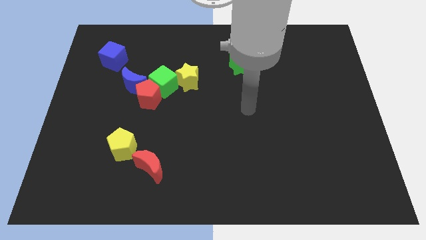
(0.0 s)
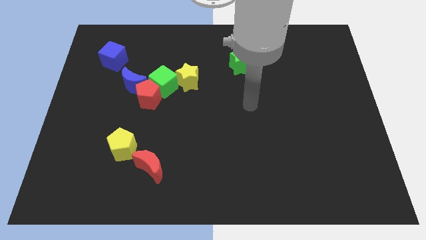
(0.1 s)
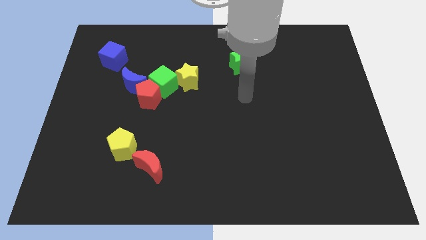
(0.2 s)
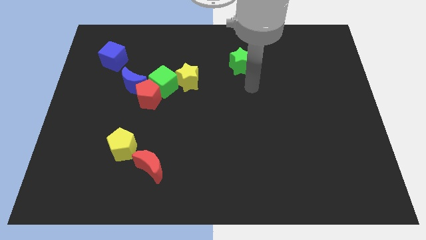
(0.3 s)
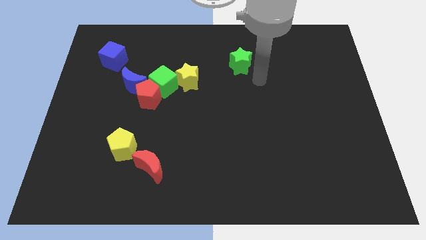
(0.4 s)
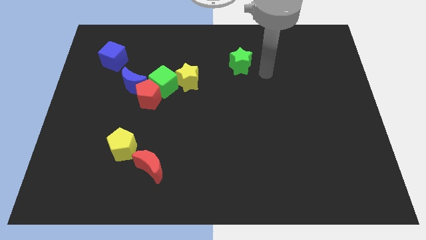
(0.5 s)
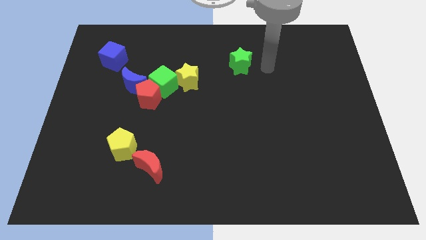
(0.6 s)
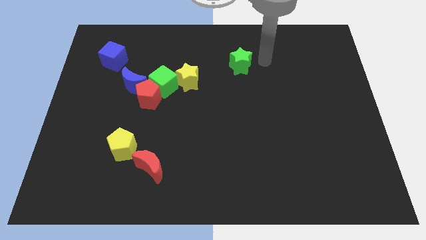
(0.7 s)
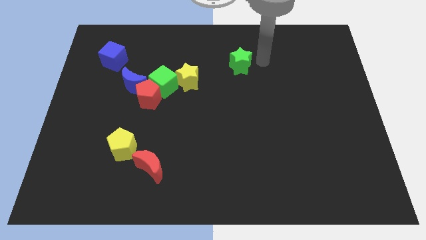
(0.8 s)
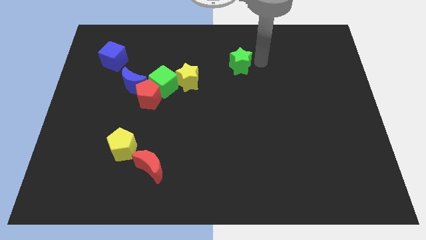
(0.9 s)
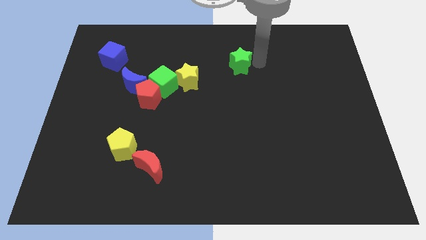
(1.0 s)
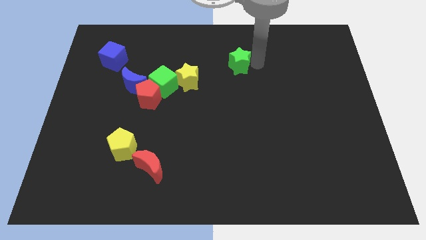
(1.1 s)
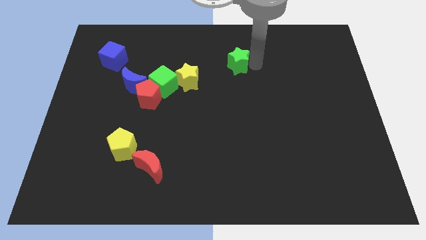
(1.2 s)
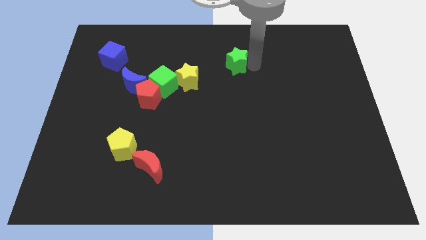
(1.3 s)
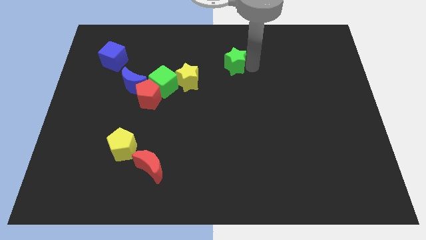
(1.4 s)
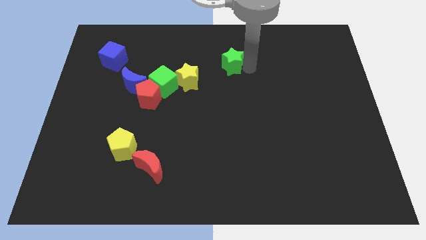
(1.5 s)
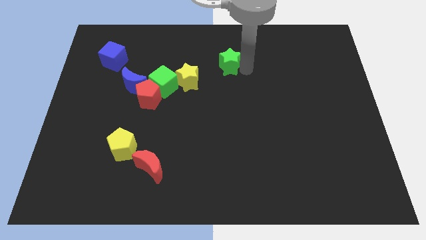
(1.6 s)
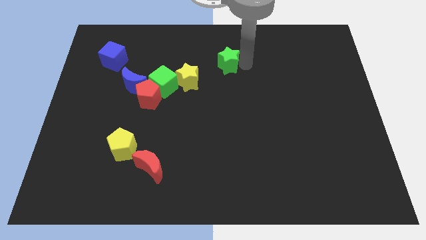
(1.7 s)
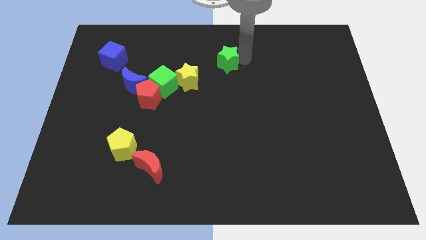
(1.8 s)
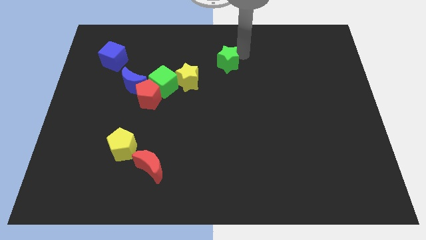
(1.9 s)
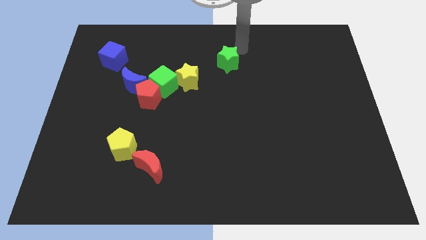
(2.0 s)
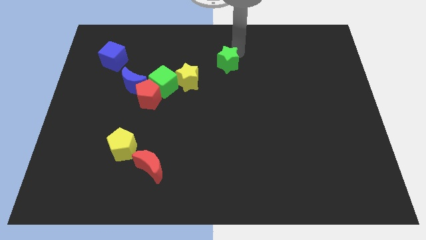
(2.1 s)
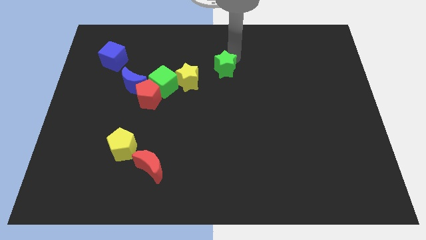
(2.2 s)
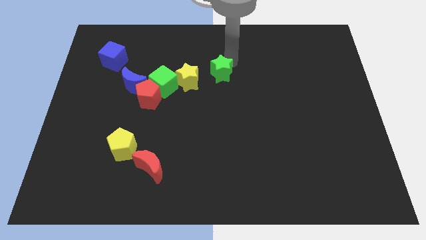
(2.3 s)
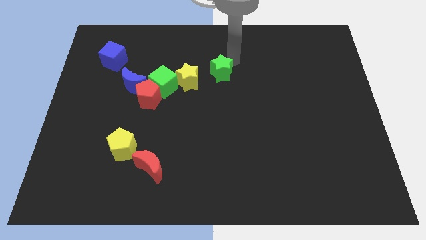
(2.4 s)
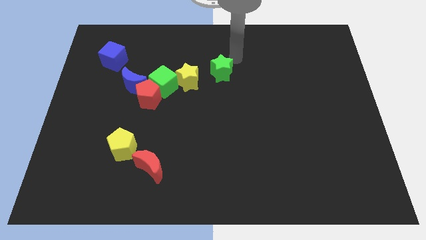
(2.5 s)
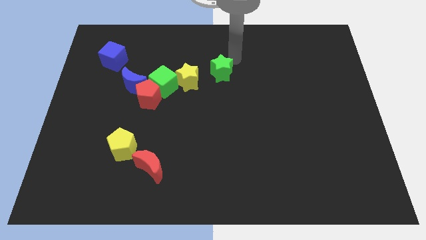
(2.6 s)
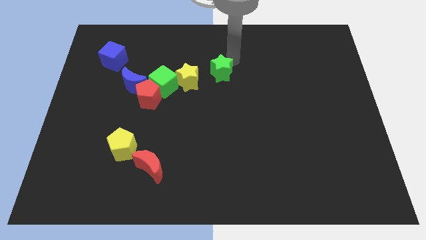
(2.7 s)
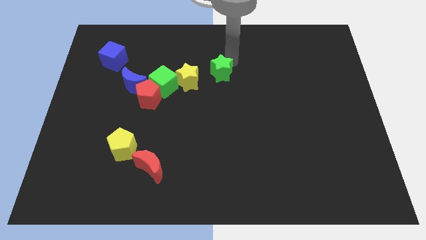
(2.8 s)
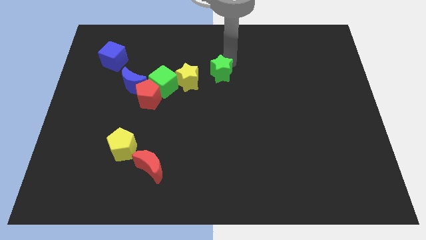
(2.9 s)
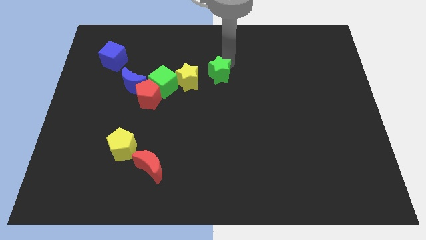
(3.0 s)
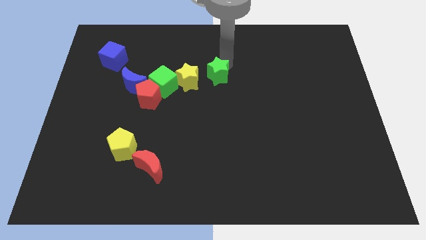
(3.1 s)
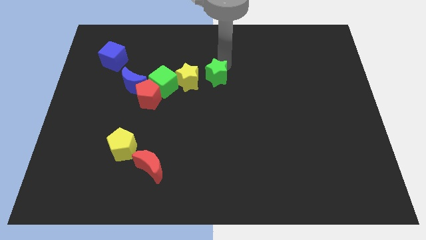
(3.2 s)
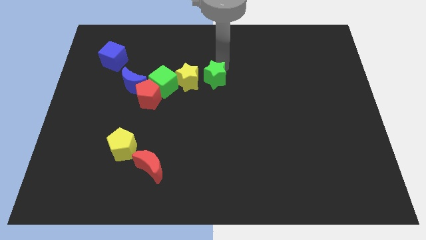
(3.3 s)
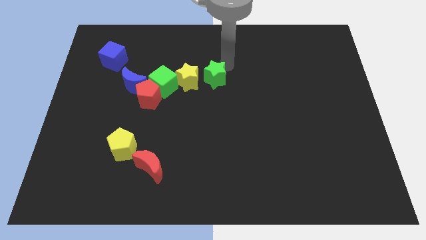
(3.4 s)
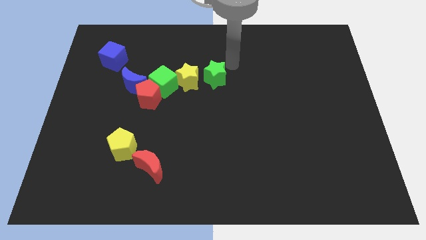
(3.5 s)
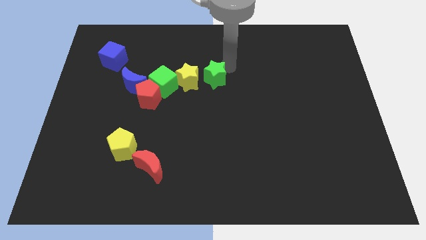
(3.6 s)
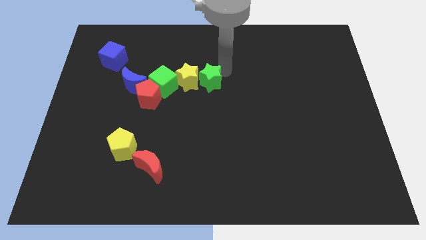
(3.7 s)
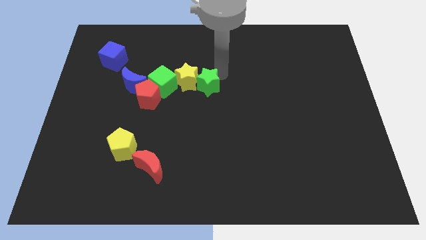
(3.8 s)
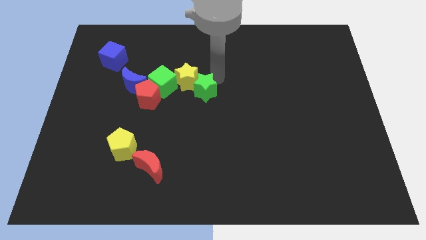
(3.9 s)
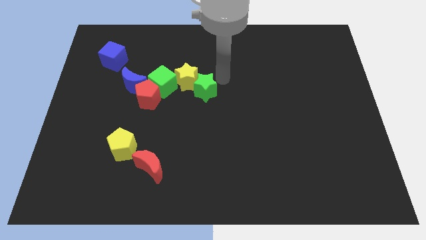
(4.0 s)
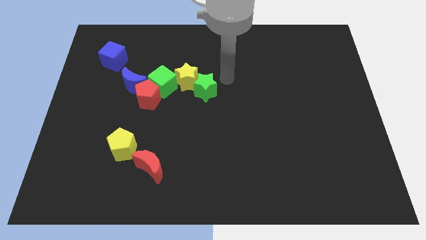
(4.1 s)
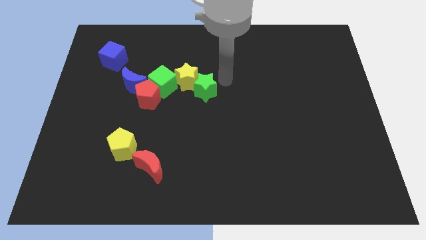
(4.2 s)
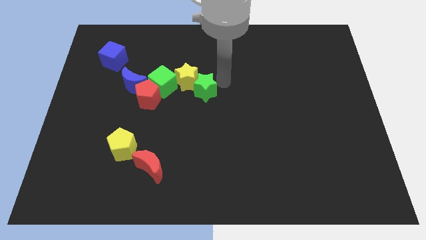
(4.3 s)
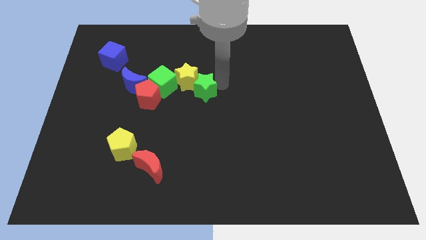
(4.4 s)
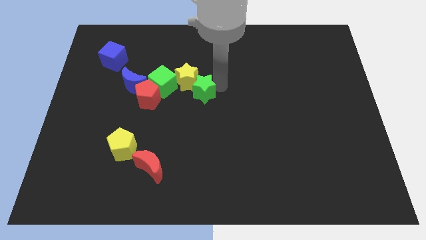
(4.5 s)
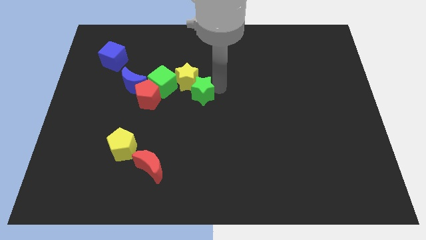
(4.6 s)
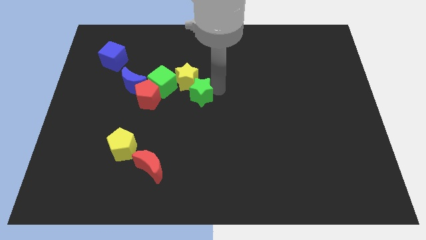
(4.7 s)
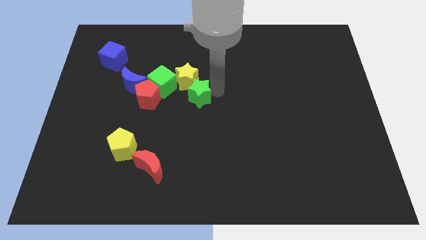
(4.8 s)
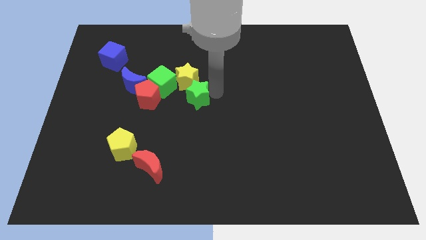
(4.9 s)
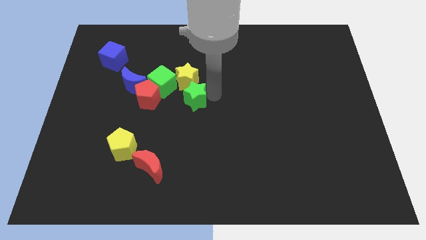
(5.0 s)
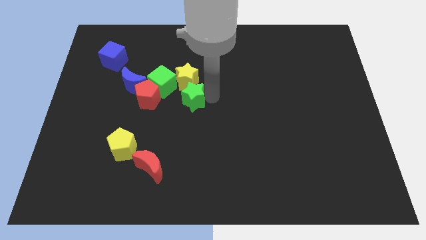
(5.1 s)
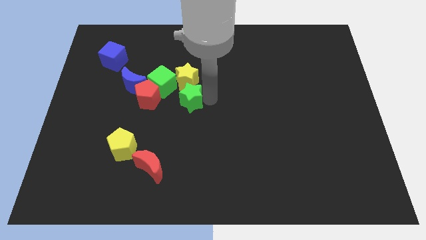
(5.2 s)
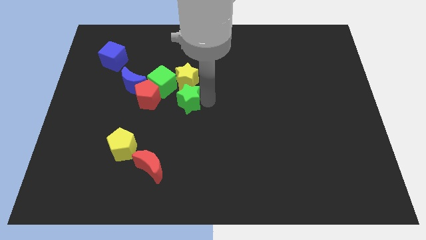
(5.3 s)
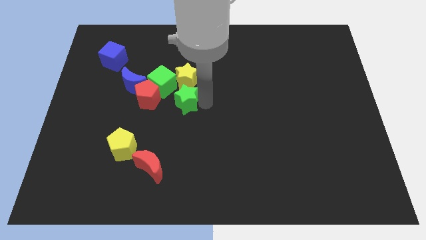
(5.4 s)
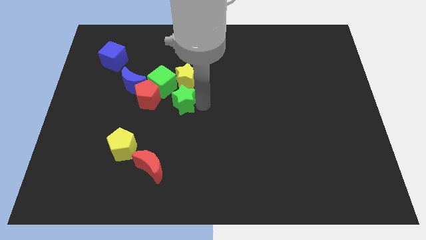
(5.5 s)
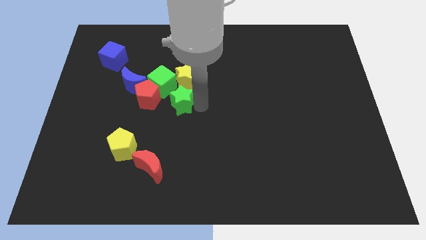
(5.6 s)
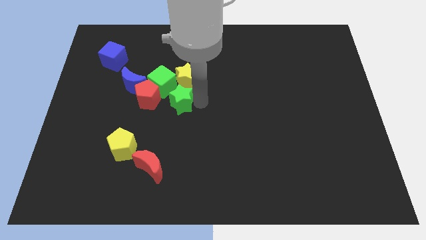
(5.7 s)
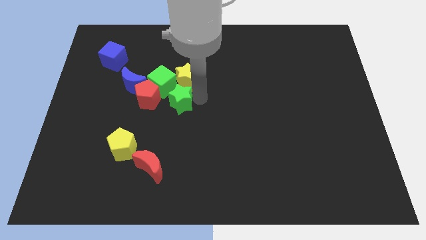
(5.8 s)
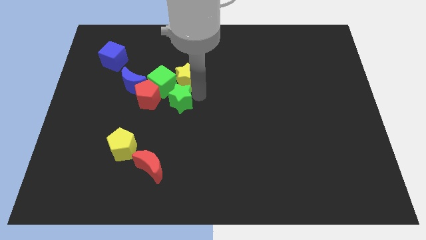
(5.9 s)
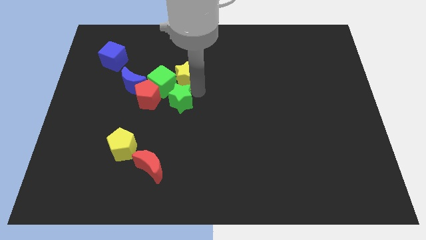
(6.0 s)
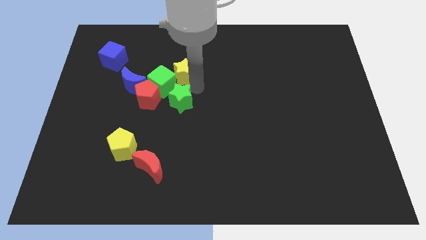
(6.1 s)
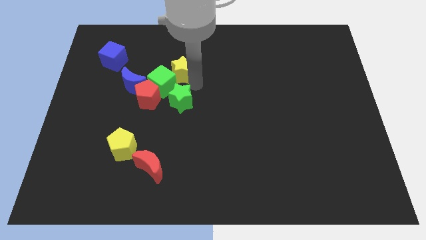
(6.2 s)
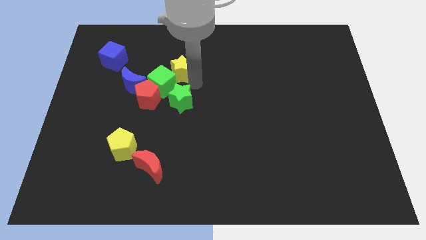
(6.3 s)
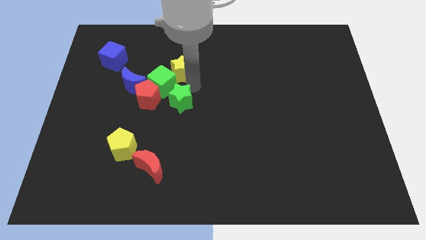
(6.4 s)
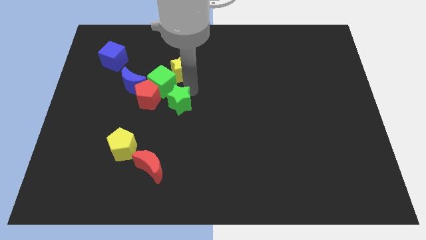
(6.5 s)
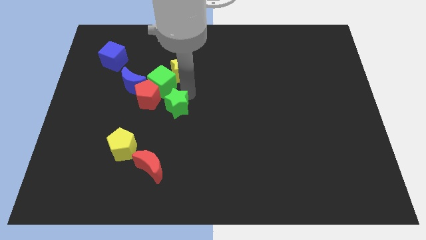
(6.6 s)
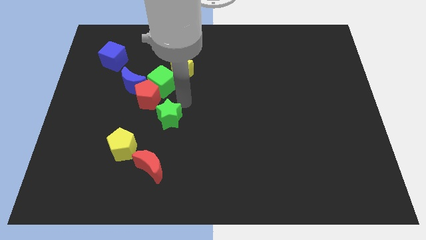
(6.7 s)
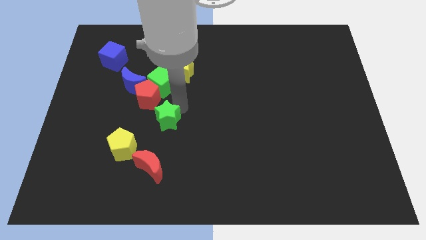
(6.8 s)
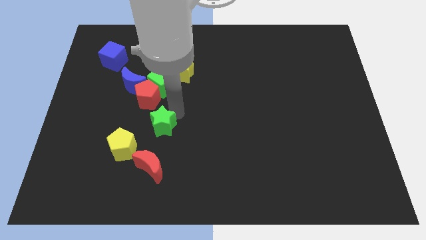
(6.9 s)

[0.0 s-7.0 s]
put the green star below the red pentagon
